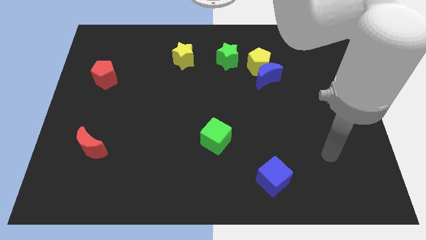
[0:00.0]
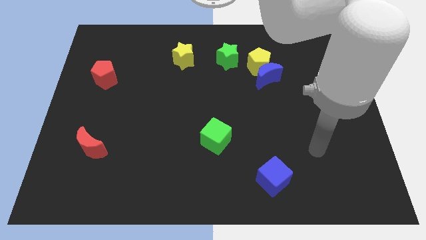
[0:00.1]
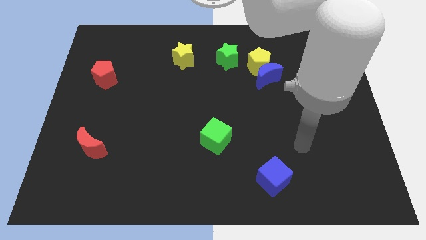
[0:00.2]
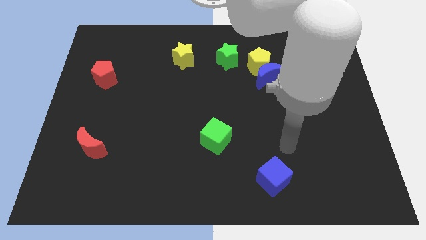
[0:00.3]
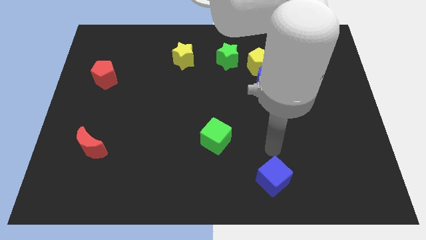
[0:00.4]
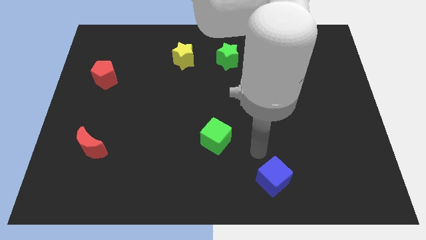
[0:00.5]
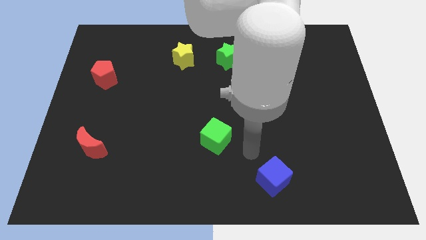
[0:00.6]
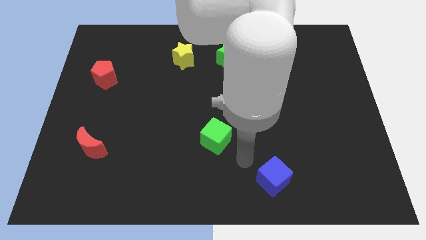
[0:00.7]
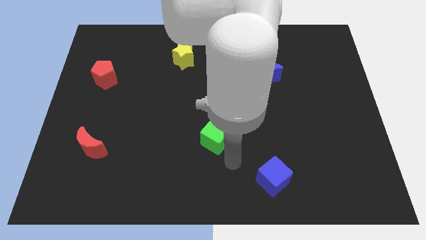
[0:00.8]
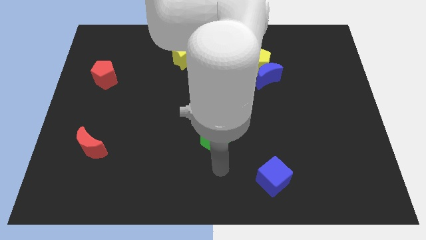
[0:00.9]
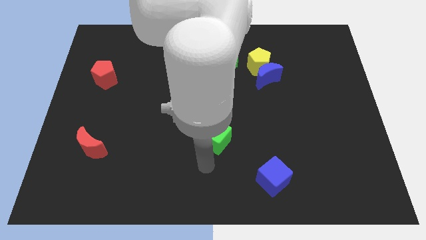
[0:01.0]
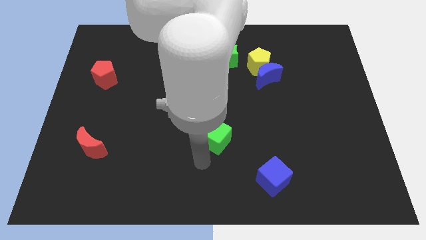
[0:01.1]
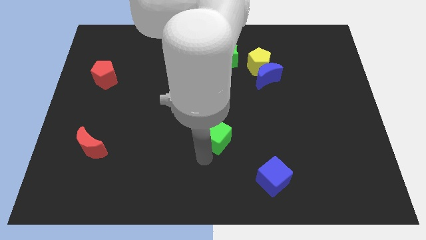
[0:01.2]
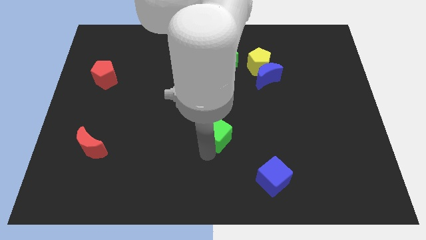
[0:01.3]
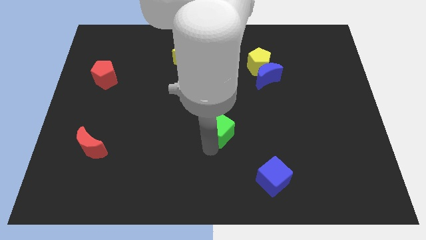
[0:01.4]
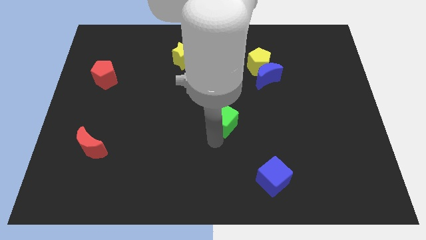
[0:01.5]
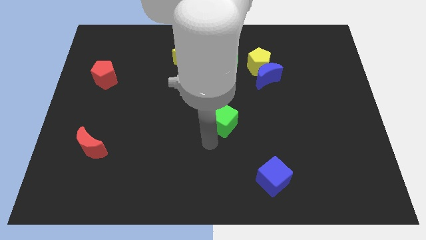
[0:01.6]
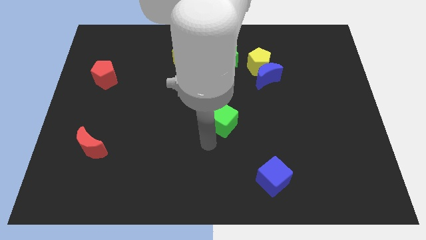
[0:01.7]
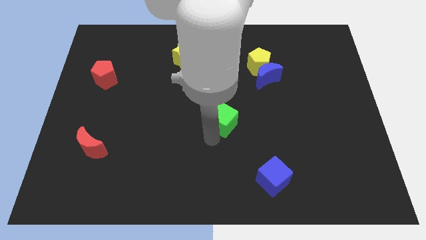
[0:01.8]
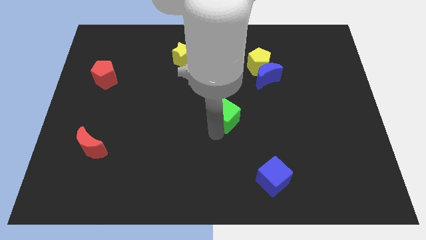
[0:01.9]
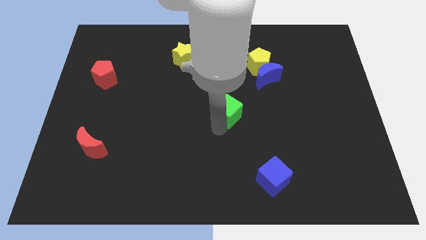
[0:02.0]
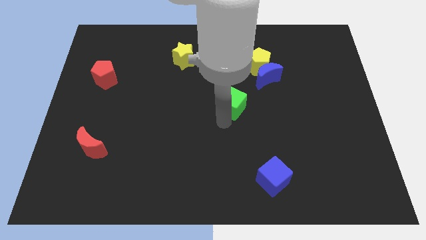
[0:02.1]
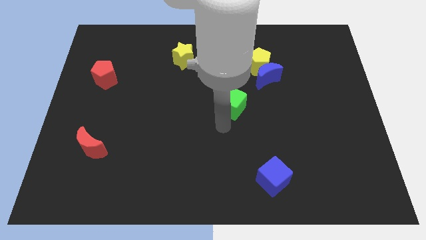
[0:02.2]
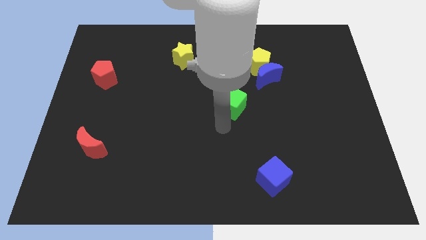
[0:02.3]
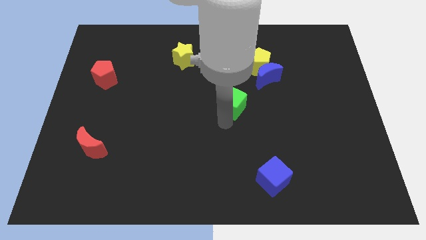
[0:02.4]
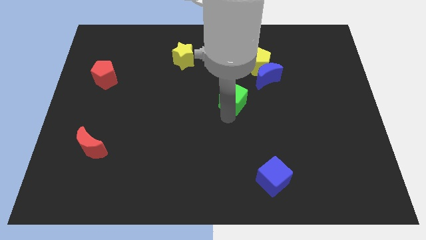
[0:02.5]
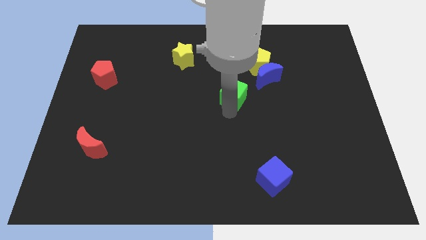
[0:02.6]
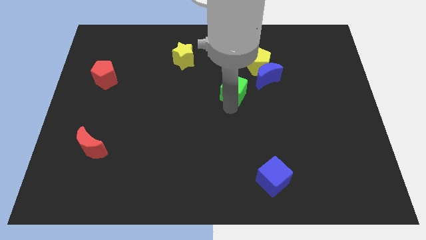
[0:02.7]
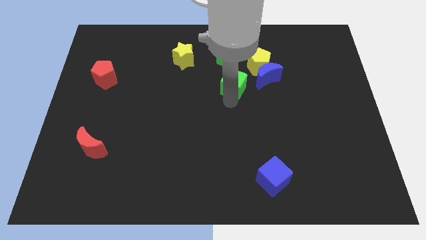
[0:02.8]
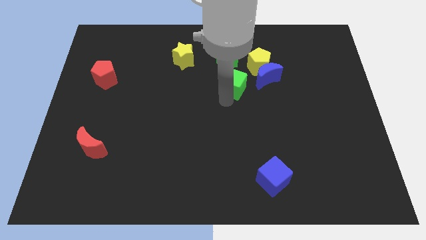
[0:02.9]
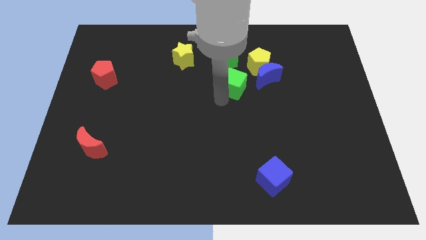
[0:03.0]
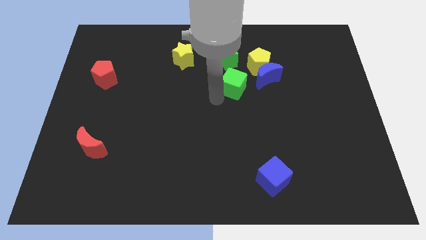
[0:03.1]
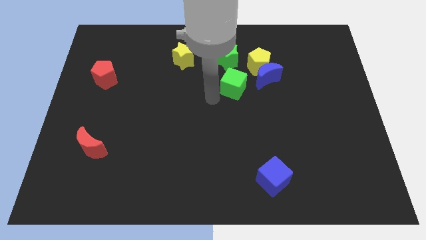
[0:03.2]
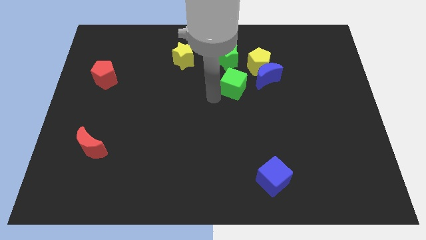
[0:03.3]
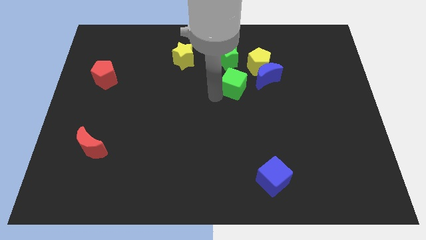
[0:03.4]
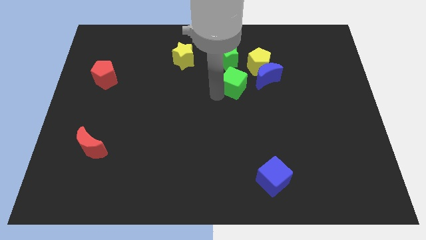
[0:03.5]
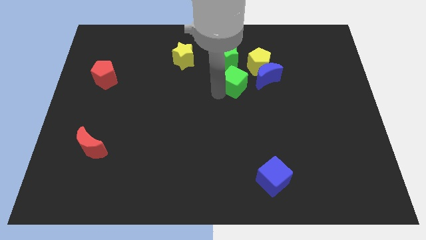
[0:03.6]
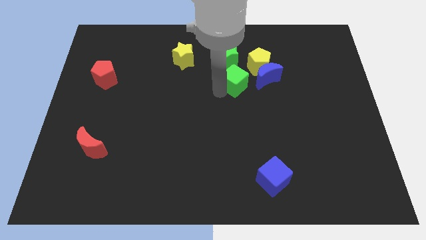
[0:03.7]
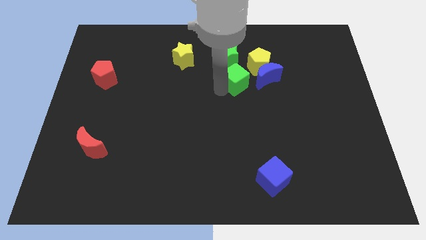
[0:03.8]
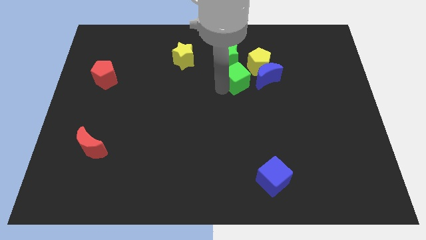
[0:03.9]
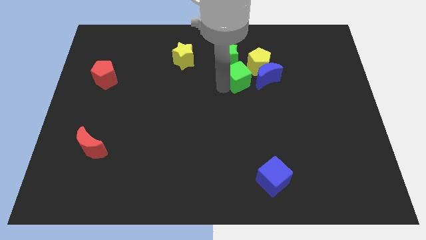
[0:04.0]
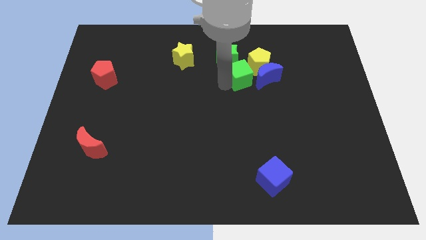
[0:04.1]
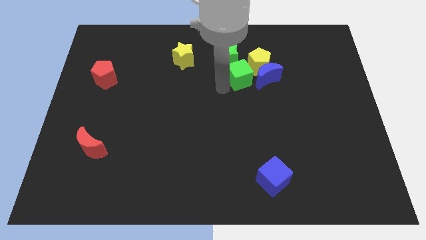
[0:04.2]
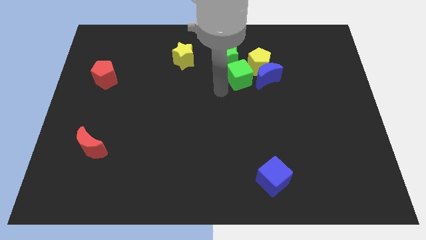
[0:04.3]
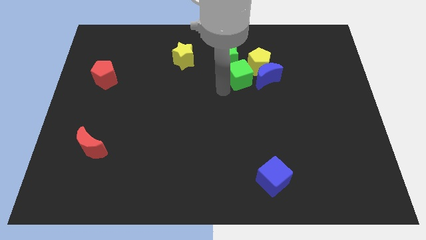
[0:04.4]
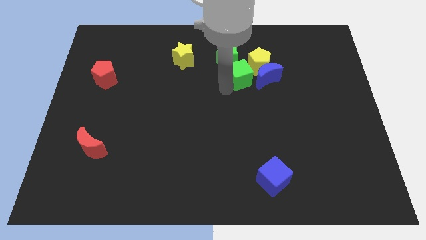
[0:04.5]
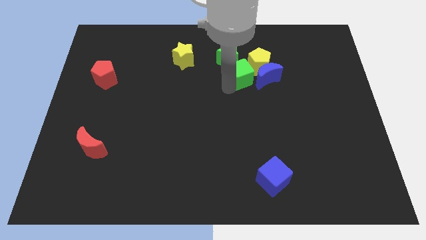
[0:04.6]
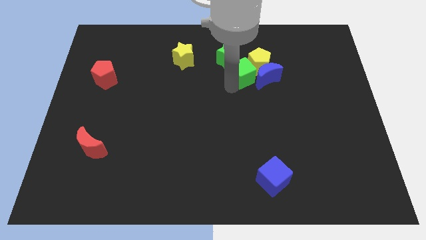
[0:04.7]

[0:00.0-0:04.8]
push the green cube towards the yellow pentagon

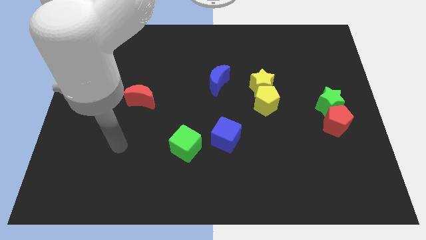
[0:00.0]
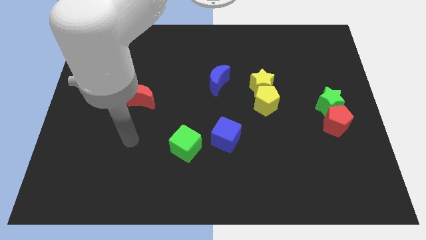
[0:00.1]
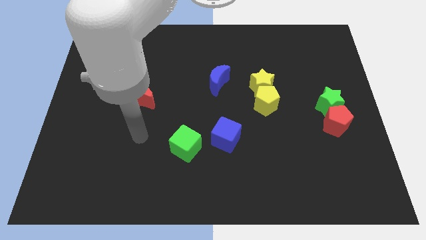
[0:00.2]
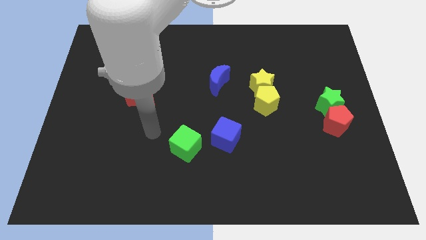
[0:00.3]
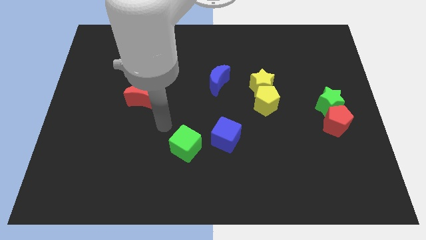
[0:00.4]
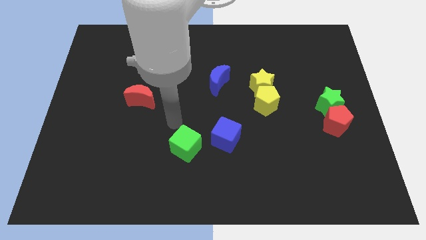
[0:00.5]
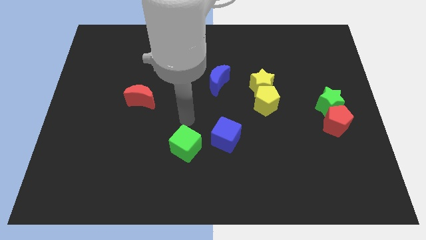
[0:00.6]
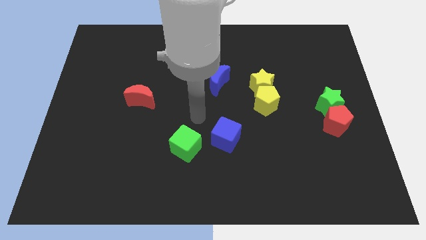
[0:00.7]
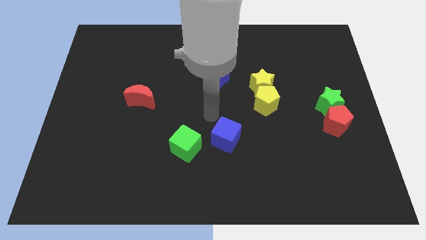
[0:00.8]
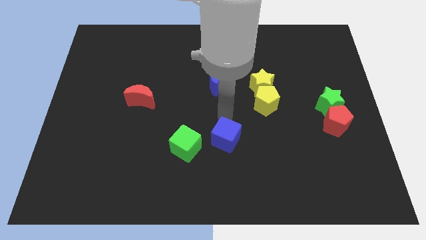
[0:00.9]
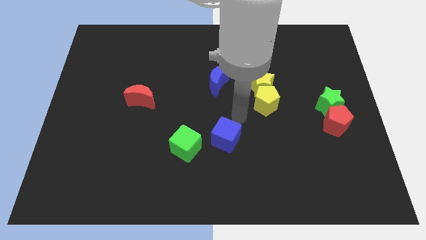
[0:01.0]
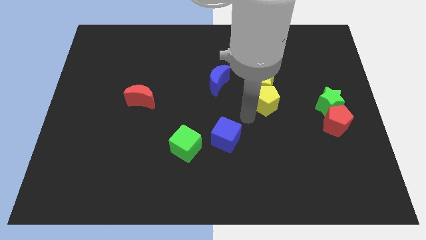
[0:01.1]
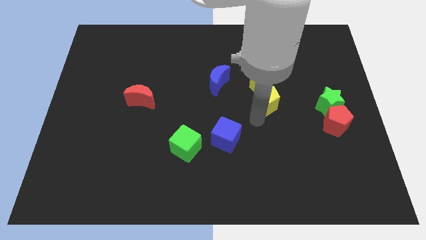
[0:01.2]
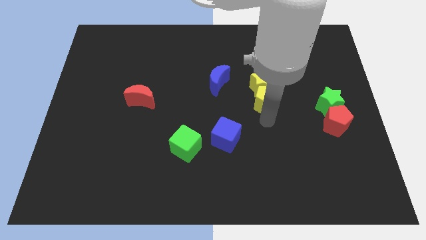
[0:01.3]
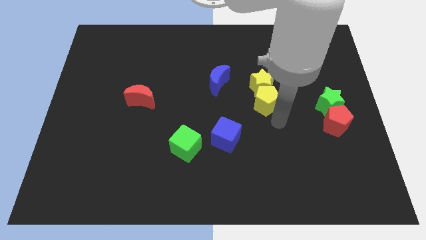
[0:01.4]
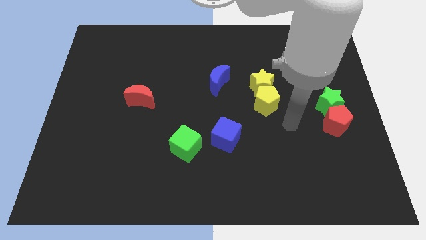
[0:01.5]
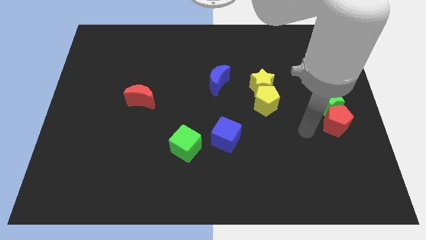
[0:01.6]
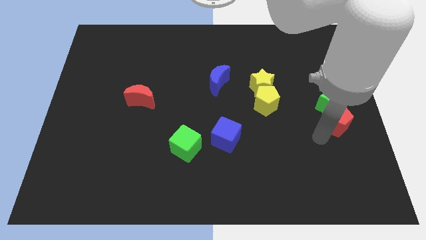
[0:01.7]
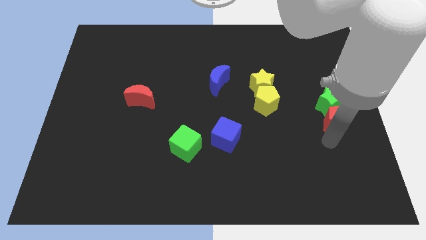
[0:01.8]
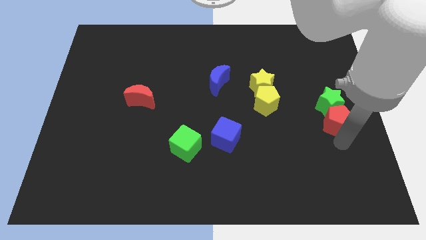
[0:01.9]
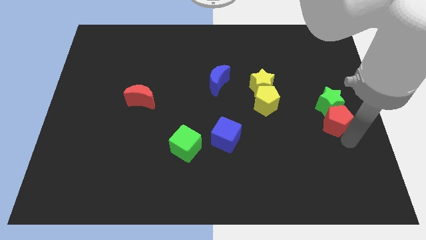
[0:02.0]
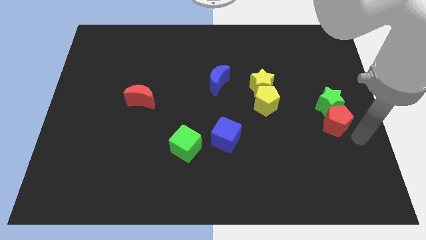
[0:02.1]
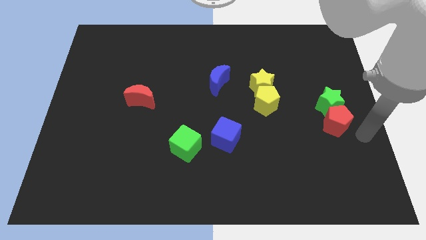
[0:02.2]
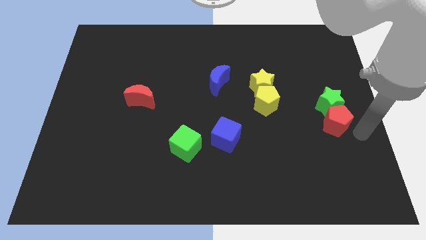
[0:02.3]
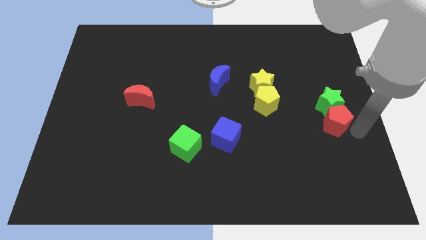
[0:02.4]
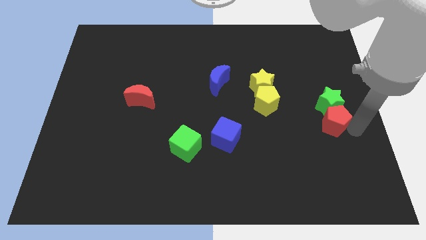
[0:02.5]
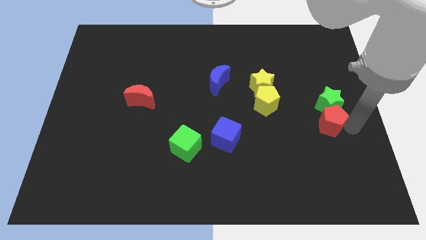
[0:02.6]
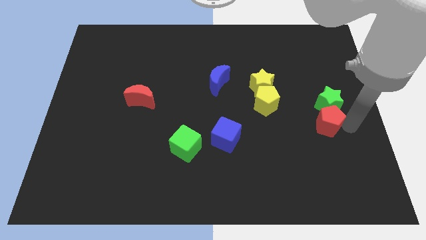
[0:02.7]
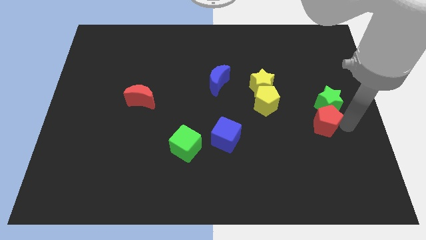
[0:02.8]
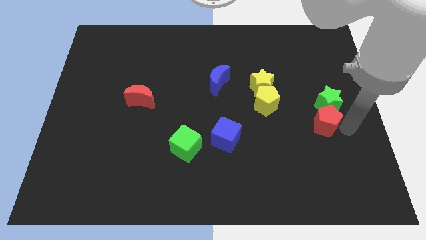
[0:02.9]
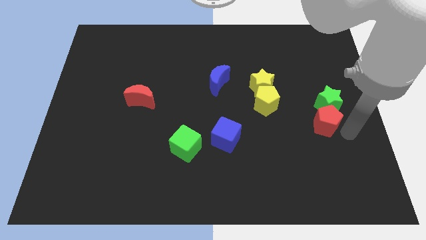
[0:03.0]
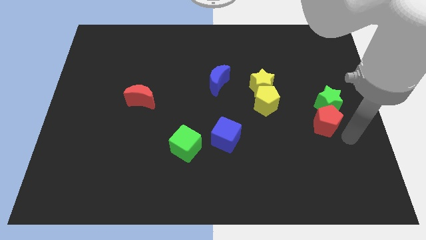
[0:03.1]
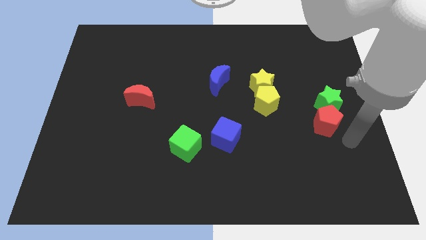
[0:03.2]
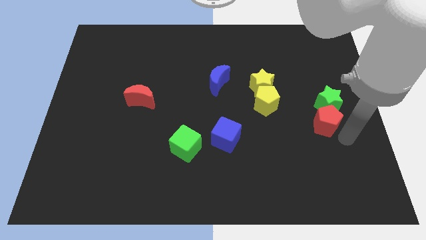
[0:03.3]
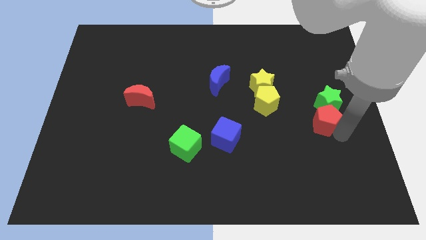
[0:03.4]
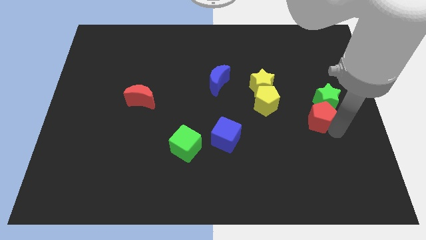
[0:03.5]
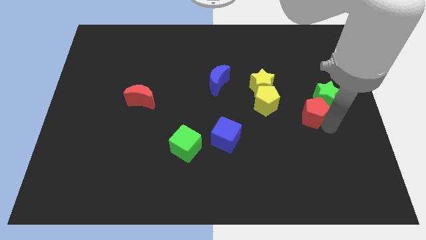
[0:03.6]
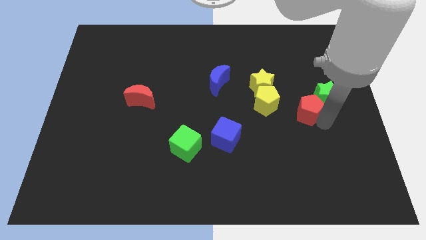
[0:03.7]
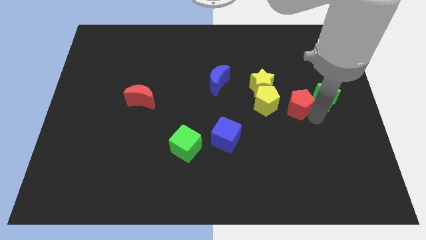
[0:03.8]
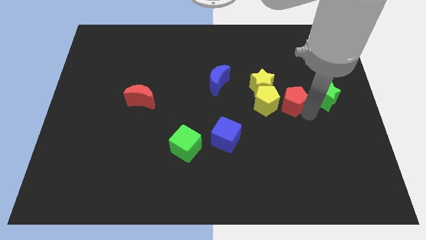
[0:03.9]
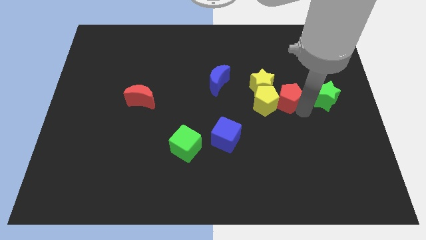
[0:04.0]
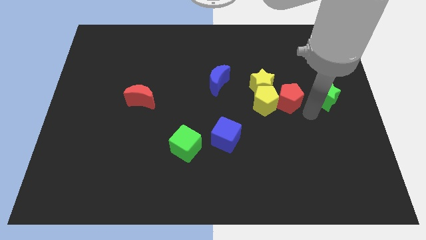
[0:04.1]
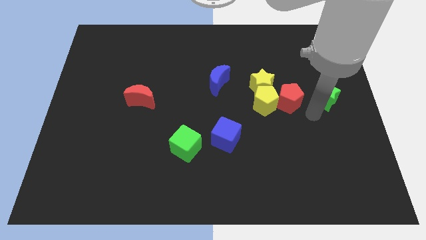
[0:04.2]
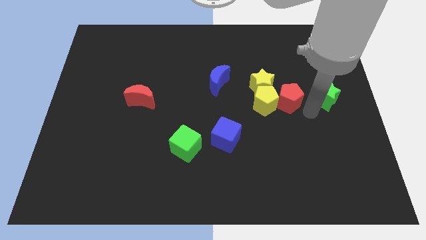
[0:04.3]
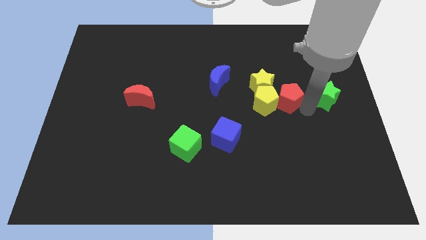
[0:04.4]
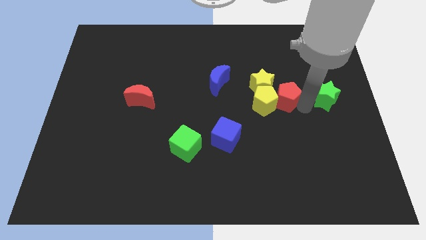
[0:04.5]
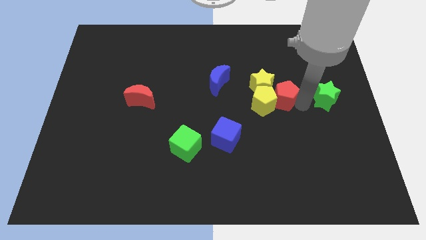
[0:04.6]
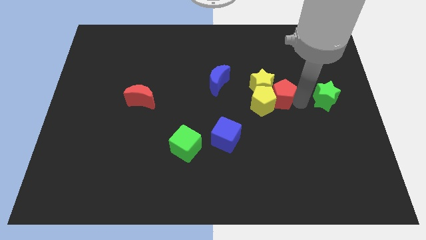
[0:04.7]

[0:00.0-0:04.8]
push the red pentagon towards the yellow star
